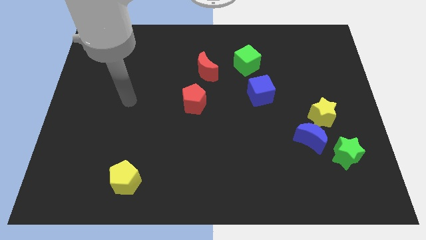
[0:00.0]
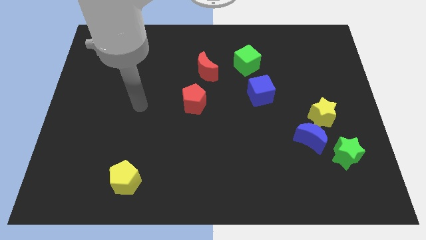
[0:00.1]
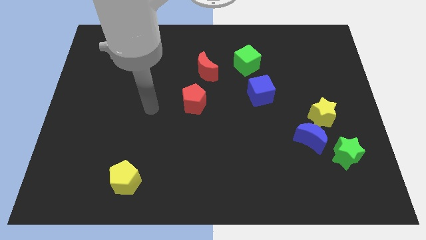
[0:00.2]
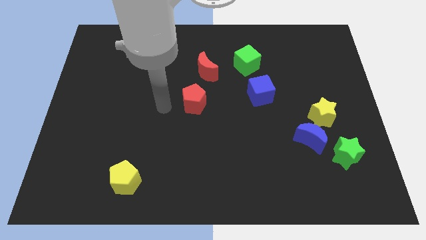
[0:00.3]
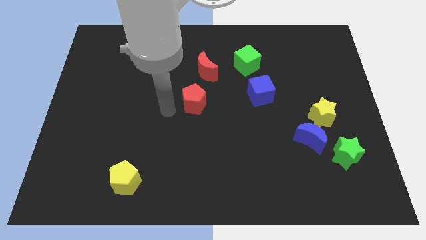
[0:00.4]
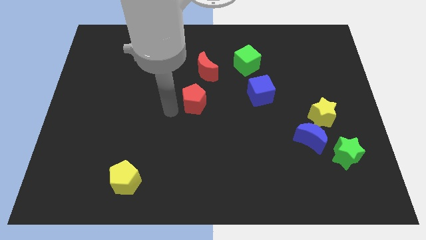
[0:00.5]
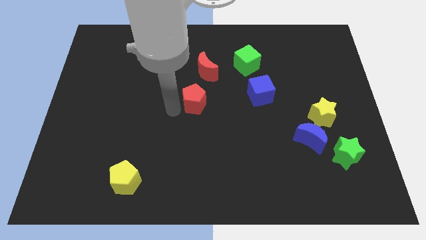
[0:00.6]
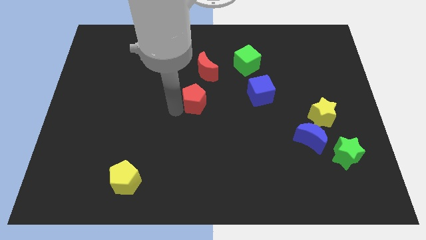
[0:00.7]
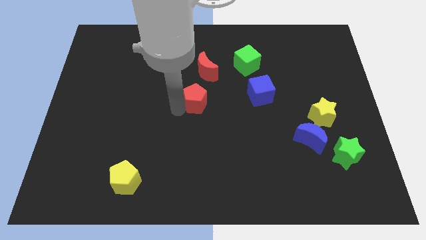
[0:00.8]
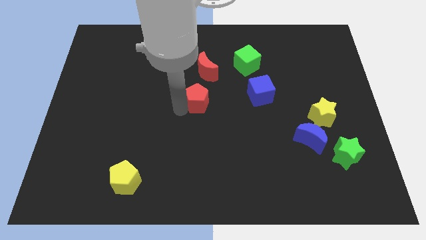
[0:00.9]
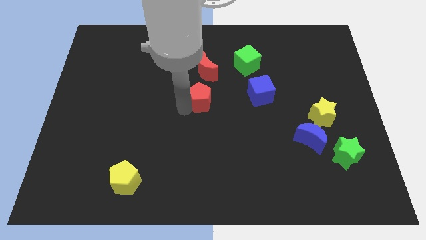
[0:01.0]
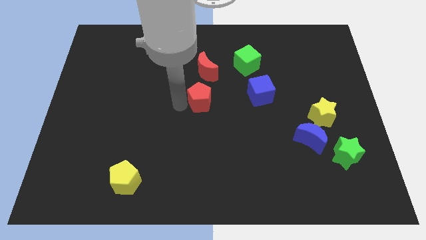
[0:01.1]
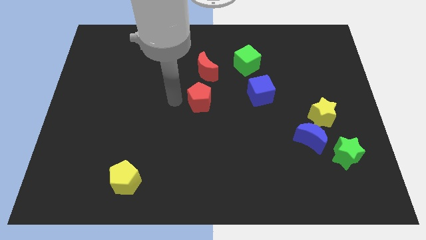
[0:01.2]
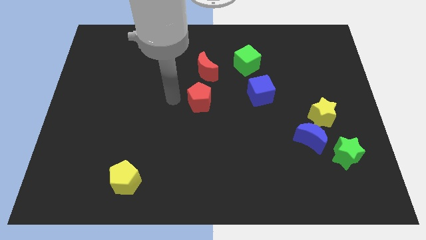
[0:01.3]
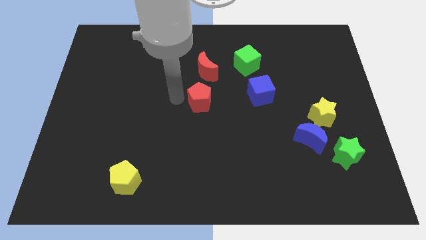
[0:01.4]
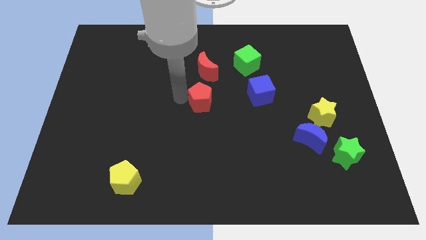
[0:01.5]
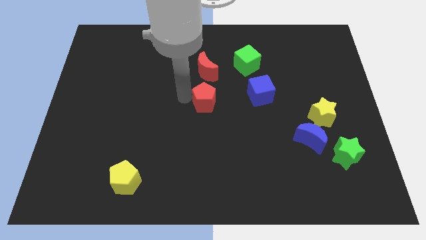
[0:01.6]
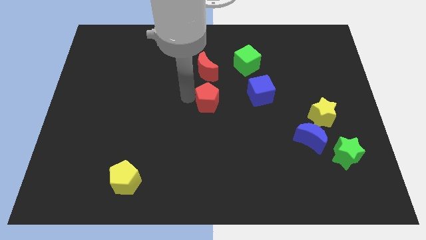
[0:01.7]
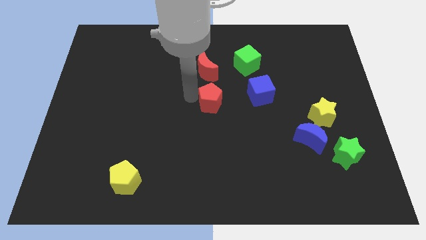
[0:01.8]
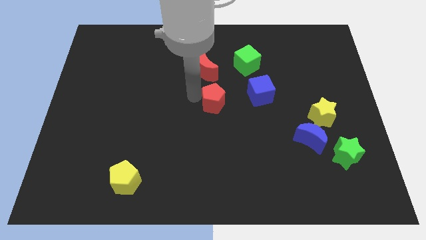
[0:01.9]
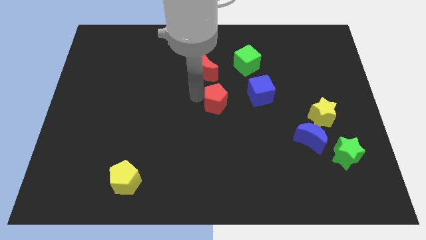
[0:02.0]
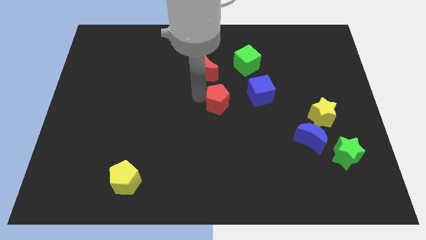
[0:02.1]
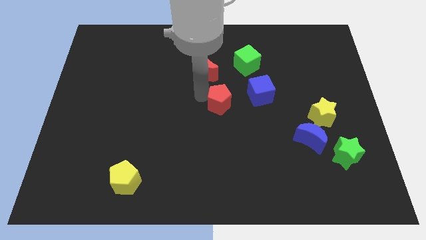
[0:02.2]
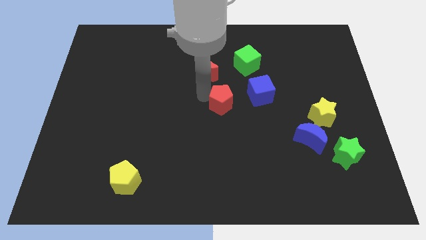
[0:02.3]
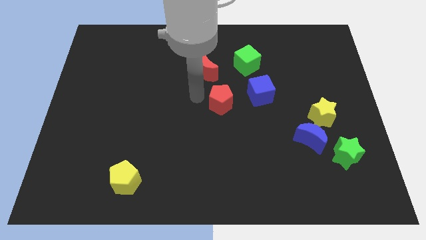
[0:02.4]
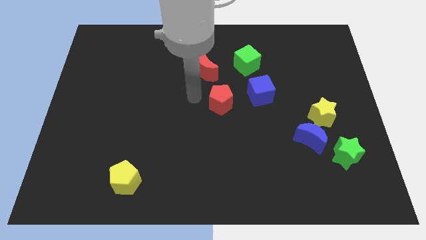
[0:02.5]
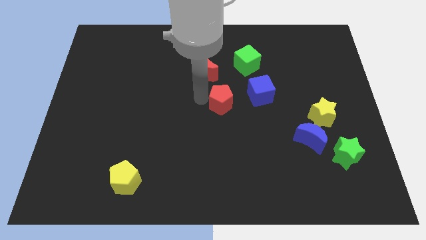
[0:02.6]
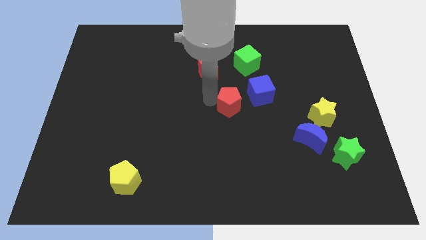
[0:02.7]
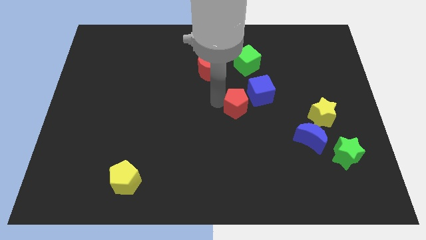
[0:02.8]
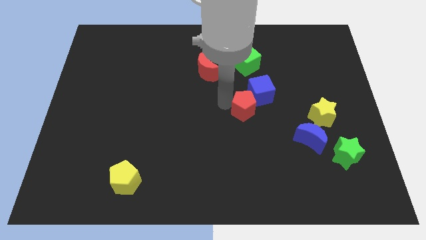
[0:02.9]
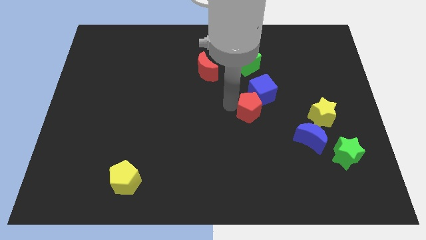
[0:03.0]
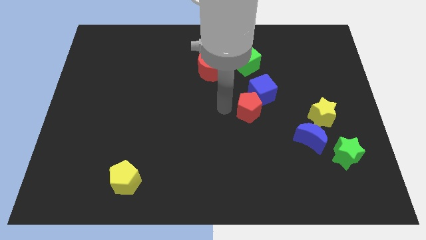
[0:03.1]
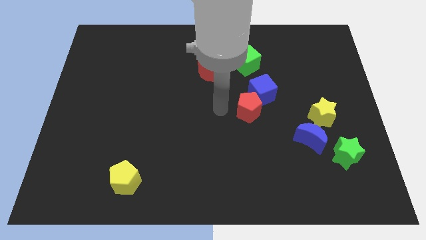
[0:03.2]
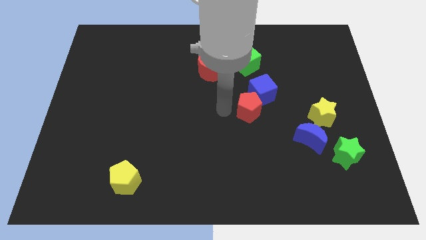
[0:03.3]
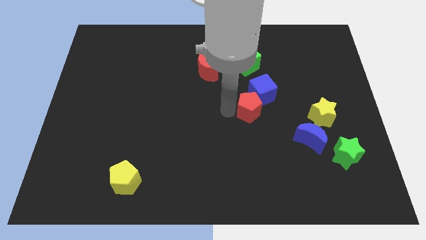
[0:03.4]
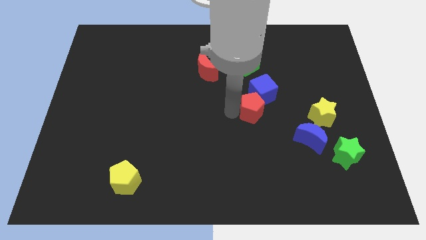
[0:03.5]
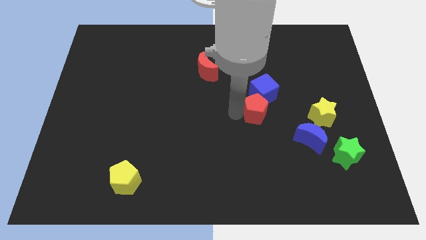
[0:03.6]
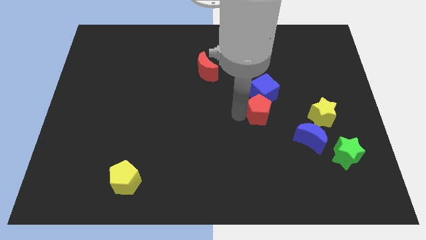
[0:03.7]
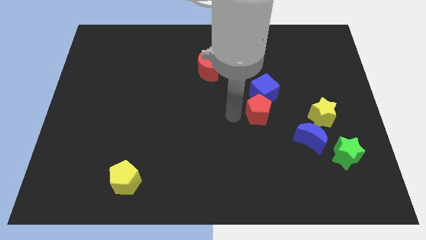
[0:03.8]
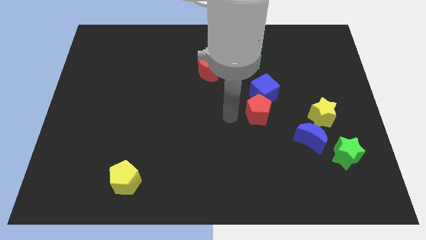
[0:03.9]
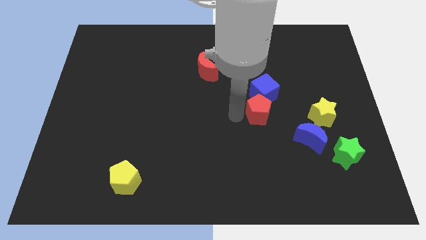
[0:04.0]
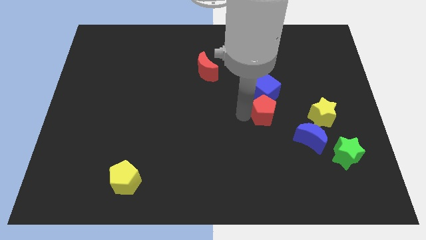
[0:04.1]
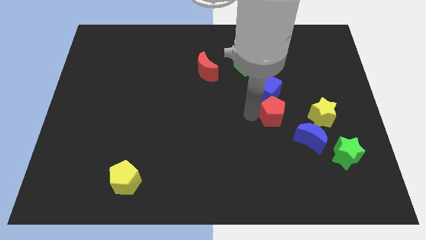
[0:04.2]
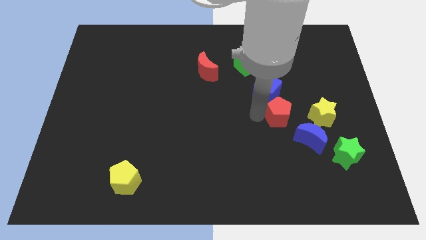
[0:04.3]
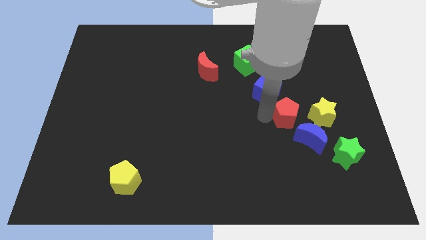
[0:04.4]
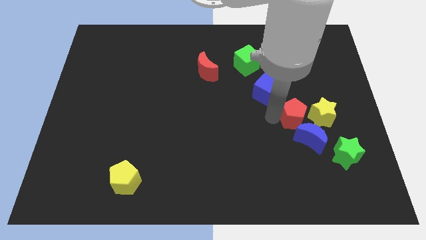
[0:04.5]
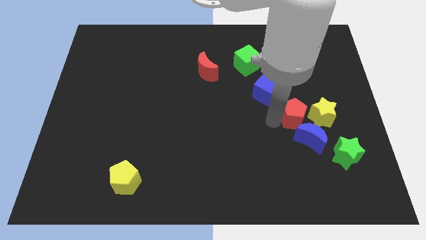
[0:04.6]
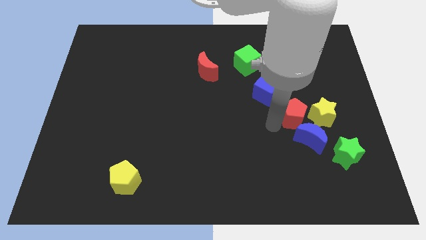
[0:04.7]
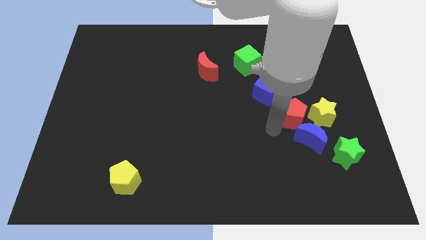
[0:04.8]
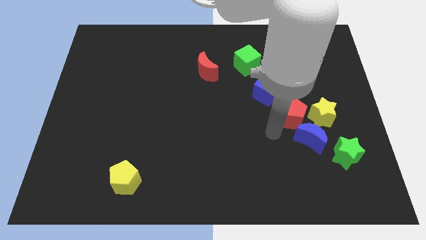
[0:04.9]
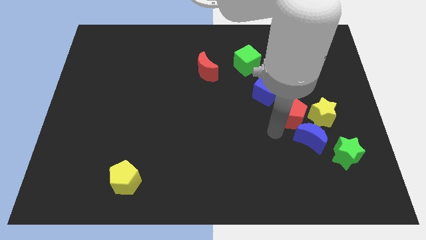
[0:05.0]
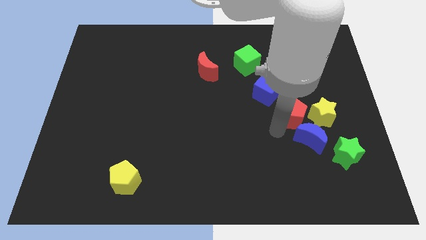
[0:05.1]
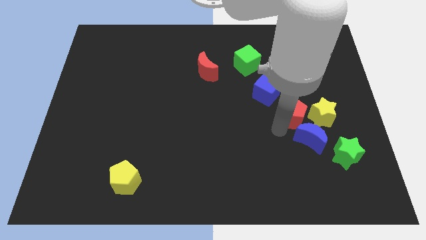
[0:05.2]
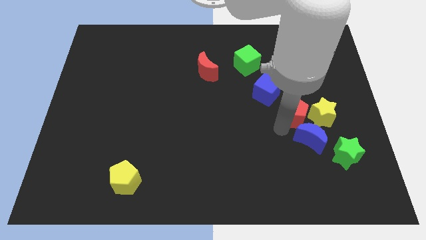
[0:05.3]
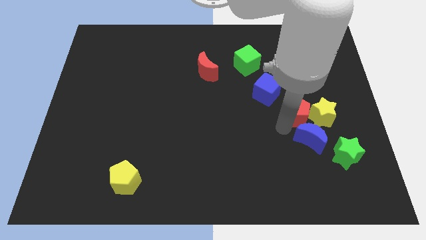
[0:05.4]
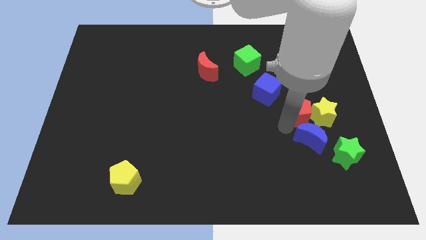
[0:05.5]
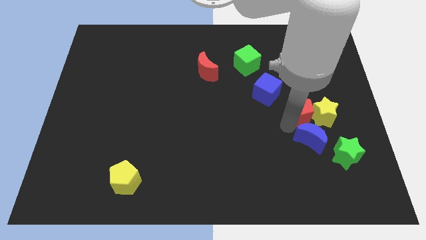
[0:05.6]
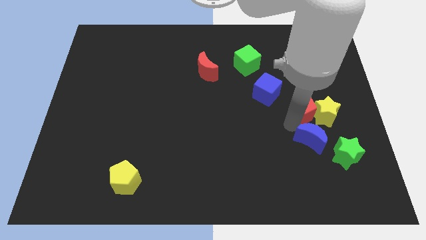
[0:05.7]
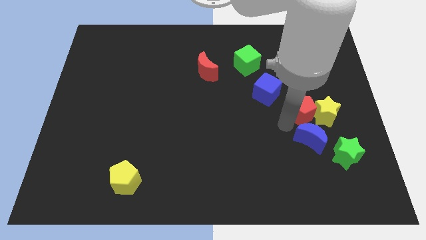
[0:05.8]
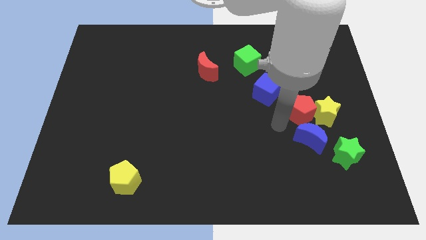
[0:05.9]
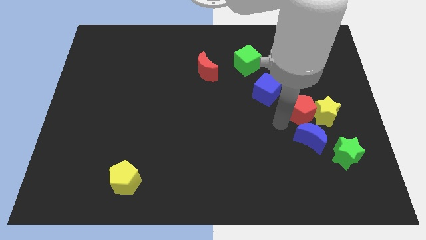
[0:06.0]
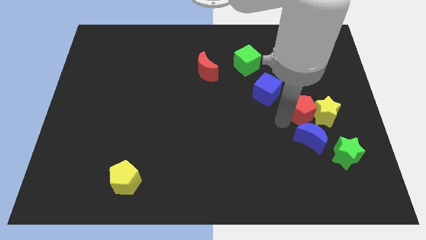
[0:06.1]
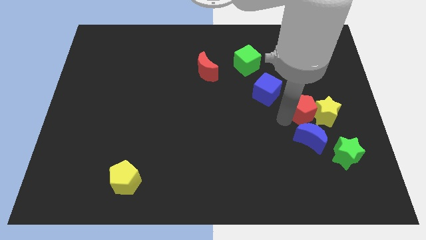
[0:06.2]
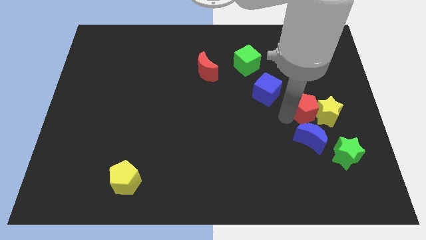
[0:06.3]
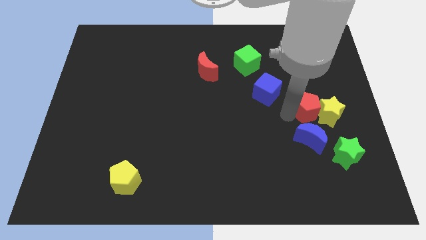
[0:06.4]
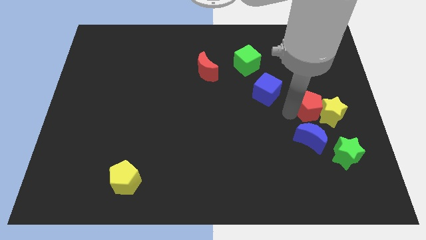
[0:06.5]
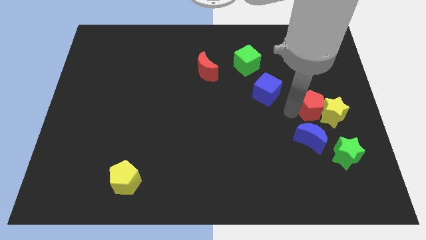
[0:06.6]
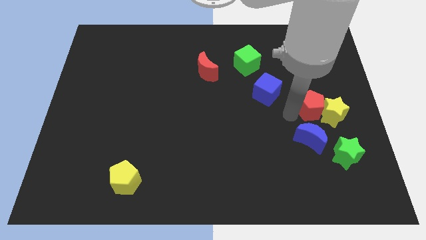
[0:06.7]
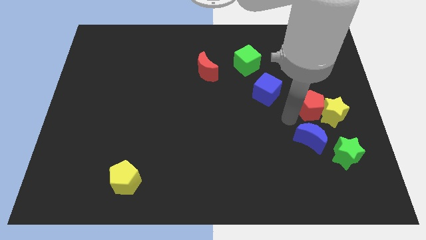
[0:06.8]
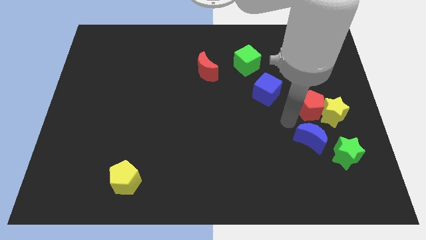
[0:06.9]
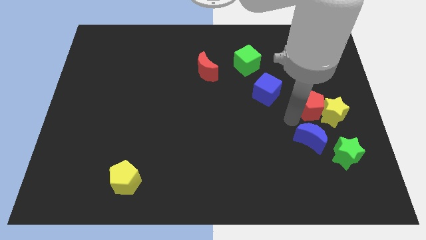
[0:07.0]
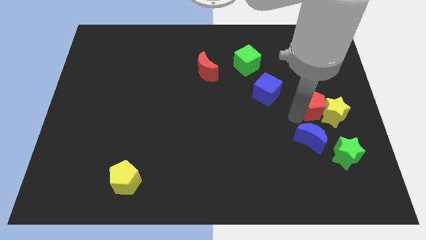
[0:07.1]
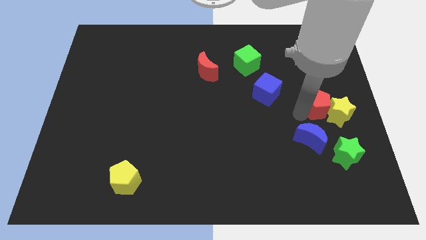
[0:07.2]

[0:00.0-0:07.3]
push the red pentagon to the top side of the green star

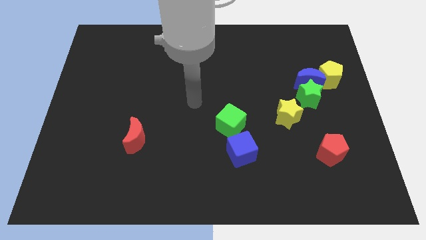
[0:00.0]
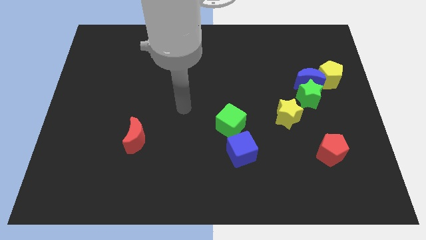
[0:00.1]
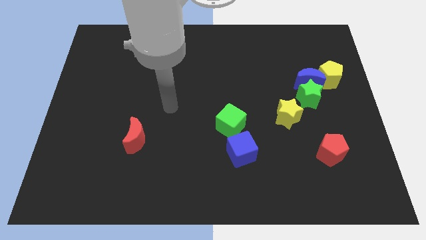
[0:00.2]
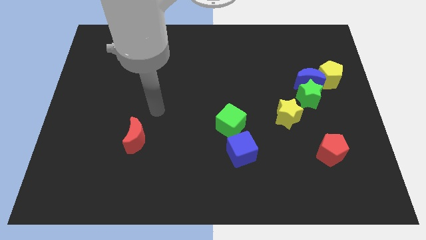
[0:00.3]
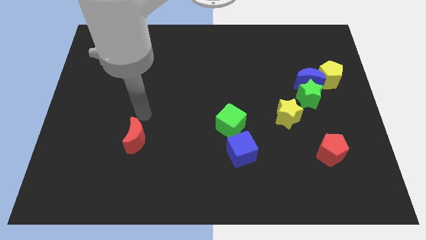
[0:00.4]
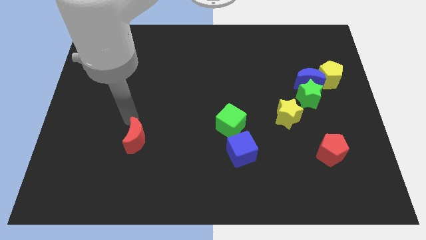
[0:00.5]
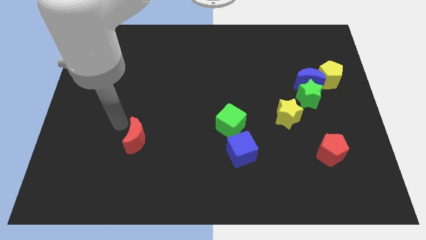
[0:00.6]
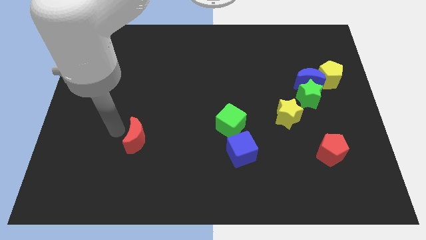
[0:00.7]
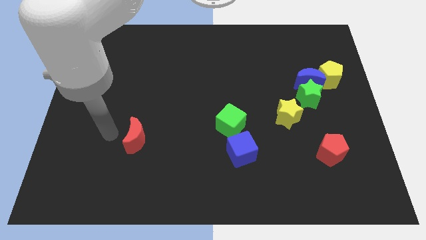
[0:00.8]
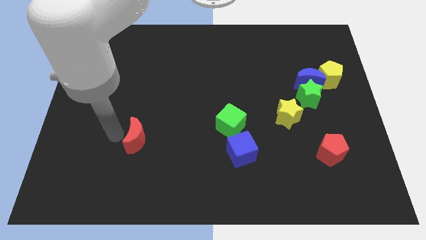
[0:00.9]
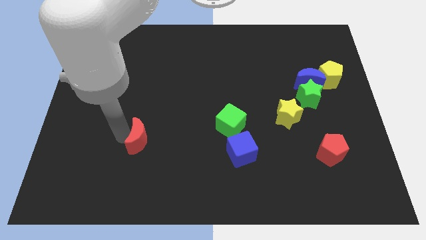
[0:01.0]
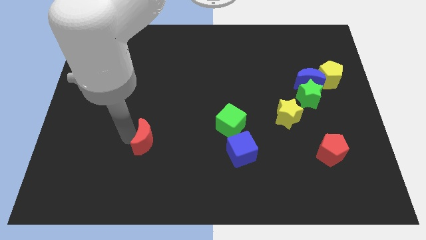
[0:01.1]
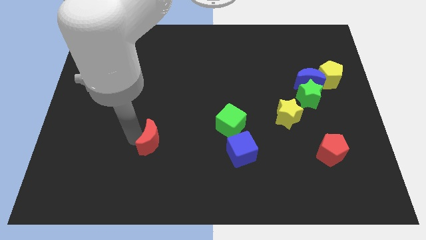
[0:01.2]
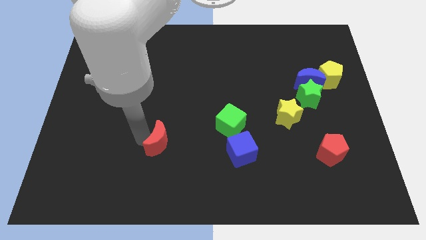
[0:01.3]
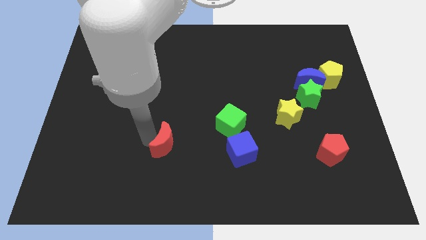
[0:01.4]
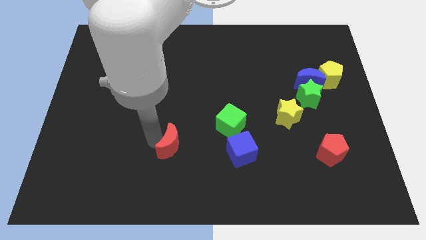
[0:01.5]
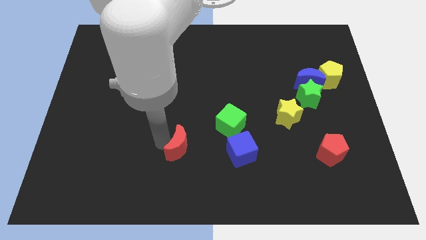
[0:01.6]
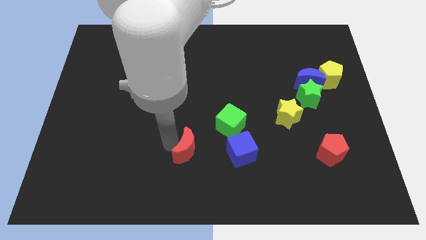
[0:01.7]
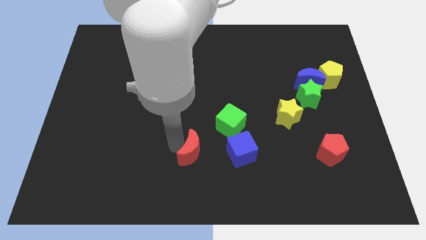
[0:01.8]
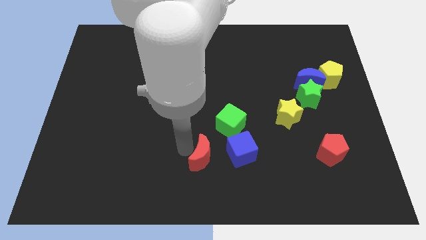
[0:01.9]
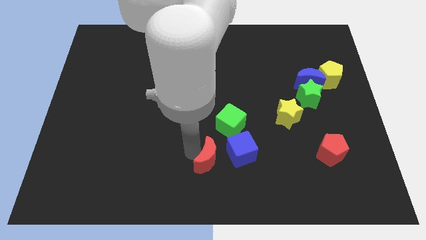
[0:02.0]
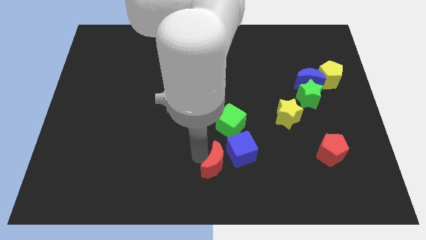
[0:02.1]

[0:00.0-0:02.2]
slide the red moon below the green cube
